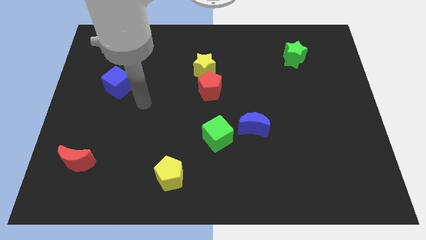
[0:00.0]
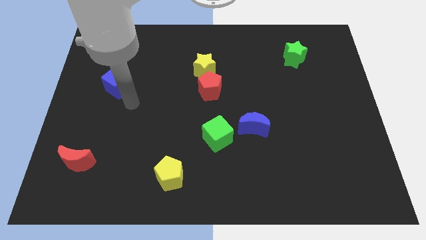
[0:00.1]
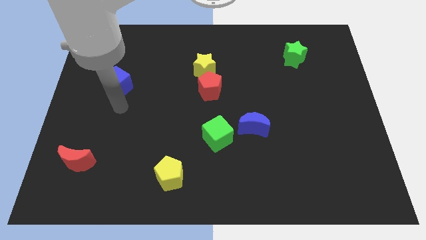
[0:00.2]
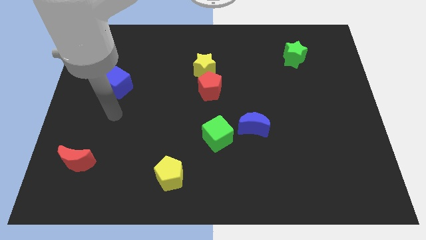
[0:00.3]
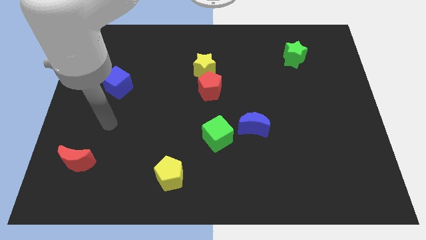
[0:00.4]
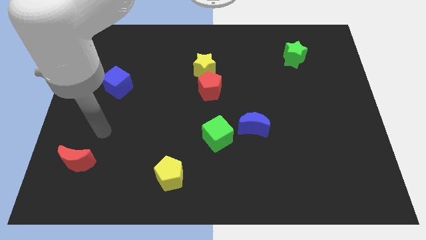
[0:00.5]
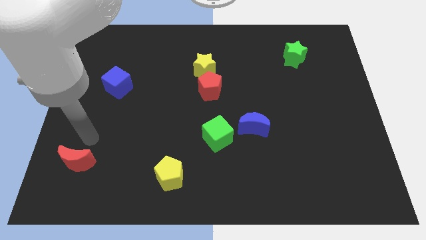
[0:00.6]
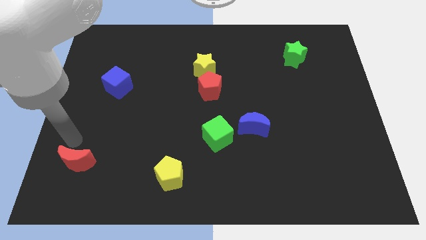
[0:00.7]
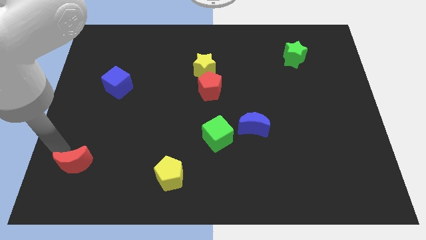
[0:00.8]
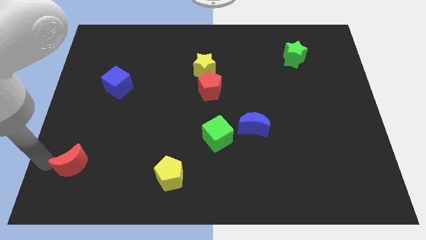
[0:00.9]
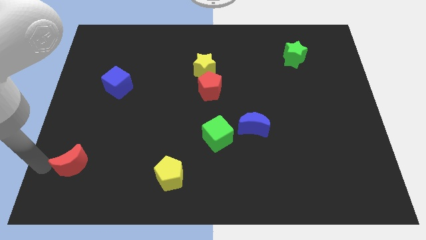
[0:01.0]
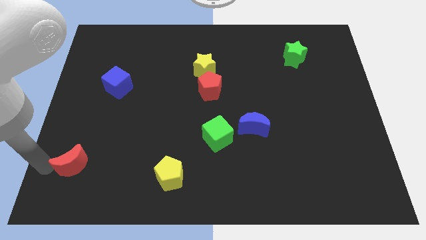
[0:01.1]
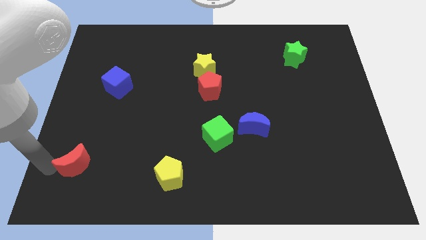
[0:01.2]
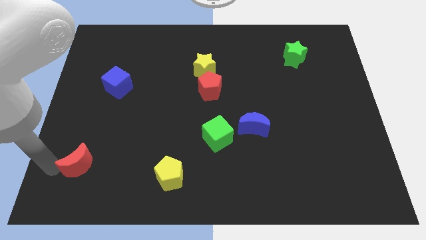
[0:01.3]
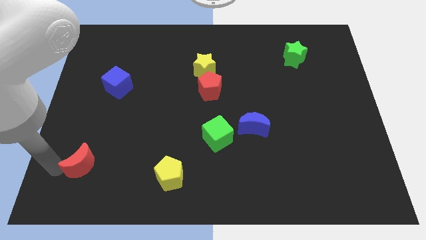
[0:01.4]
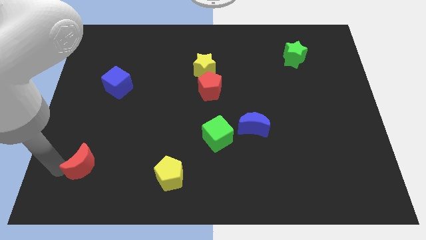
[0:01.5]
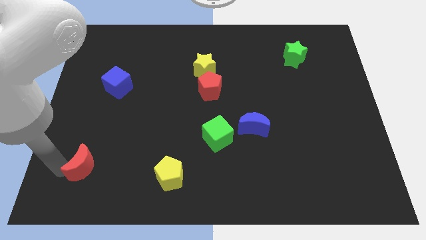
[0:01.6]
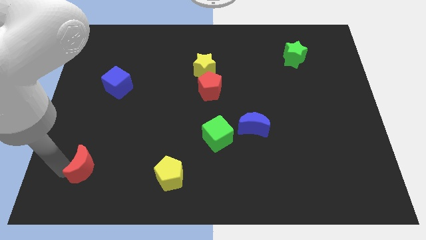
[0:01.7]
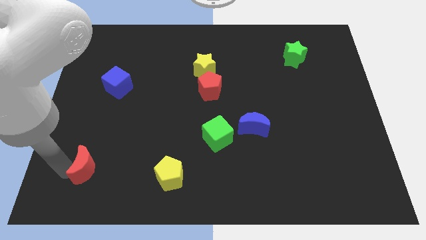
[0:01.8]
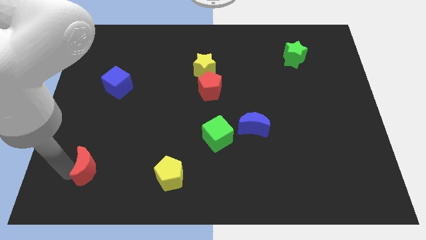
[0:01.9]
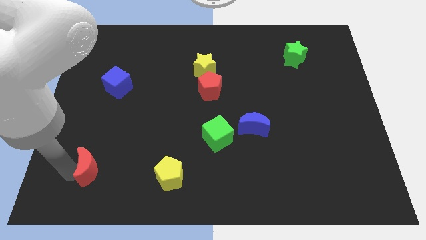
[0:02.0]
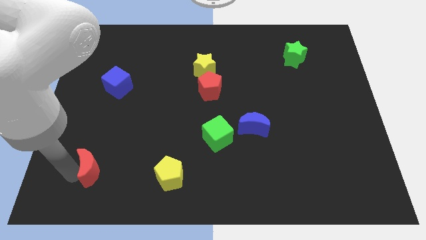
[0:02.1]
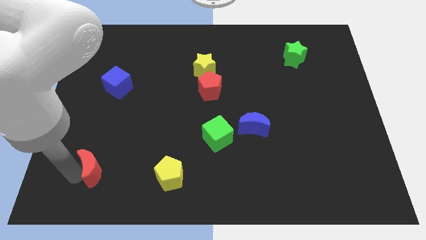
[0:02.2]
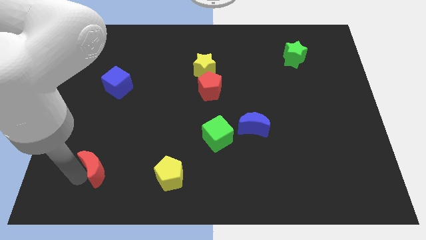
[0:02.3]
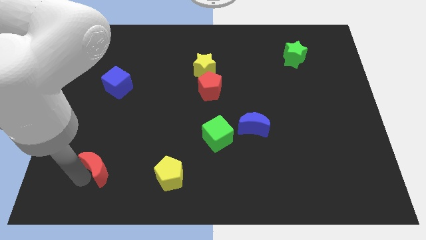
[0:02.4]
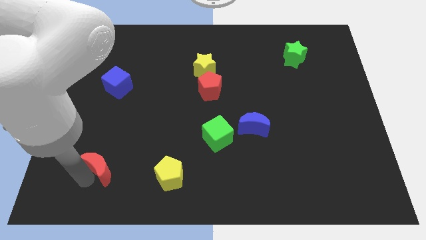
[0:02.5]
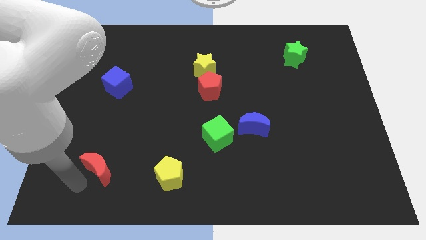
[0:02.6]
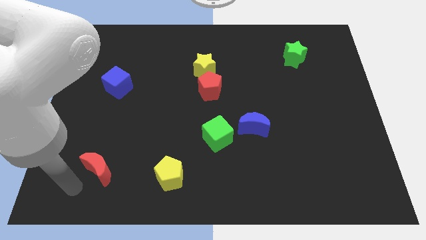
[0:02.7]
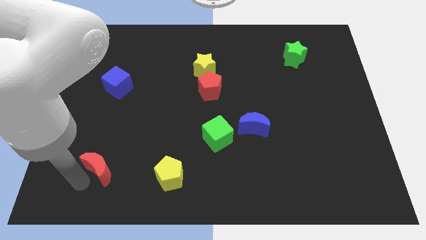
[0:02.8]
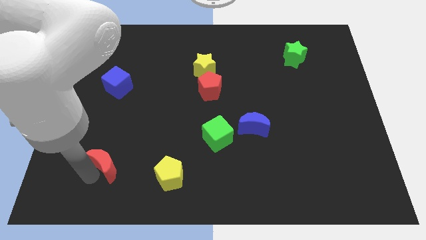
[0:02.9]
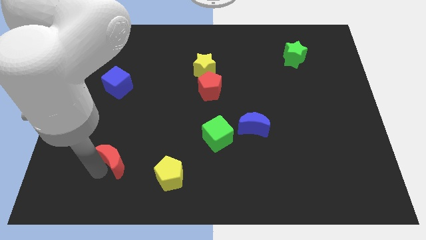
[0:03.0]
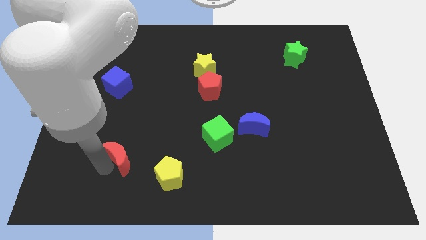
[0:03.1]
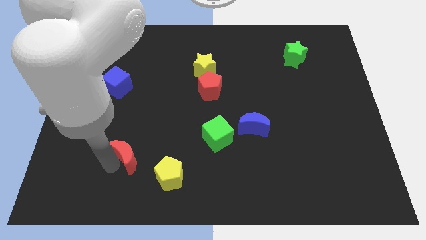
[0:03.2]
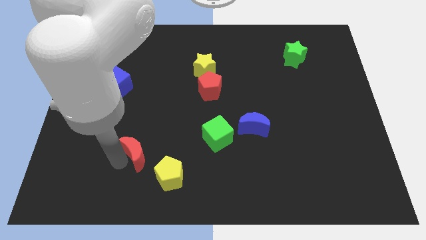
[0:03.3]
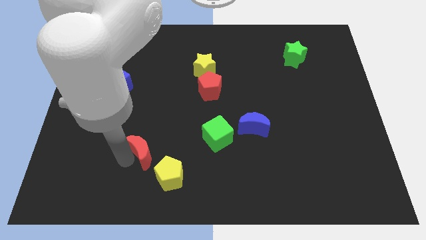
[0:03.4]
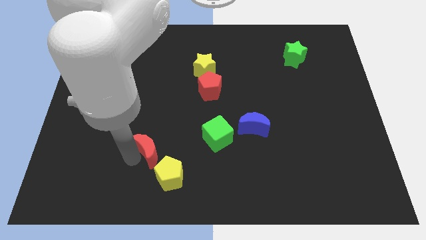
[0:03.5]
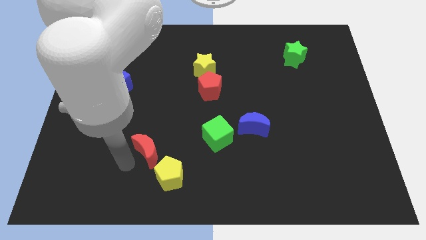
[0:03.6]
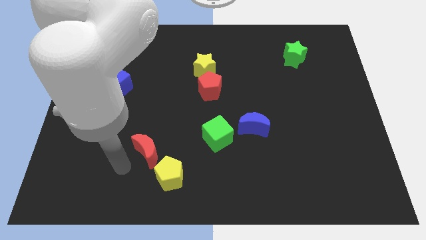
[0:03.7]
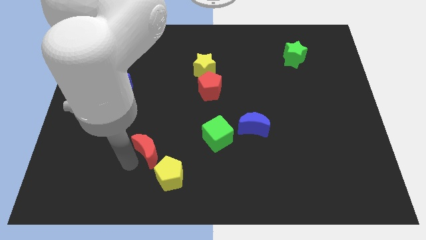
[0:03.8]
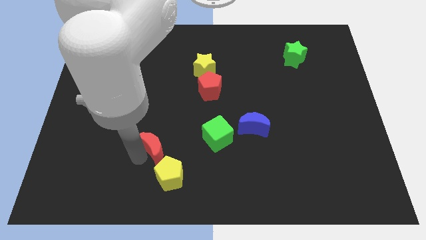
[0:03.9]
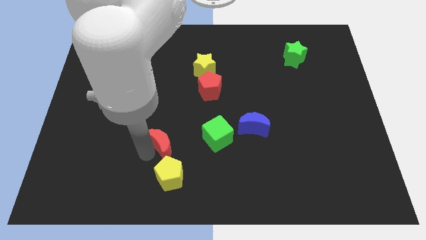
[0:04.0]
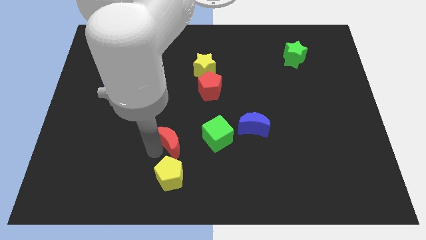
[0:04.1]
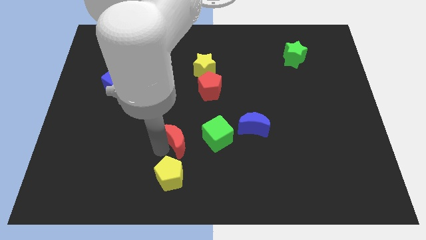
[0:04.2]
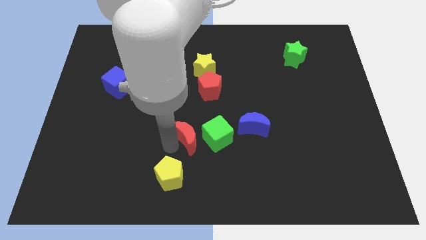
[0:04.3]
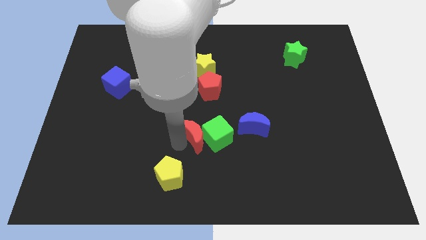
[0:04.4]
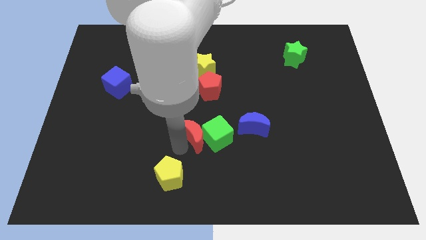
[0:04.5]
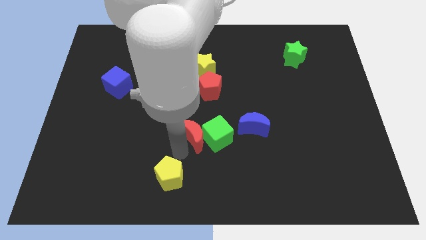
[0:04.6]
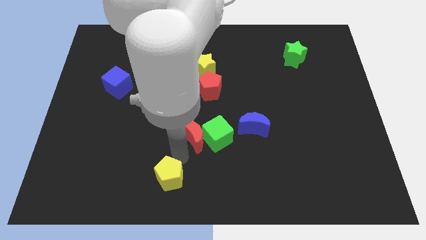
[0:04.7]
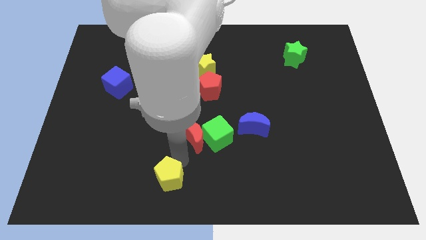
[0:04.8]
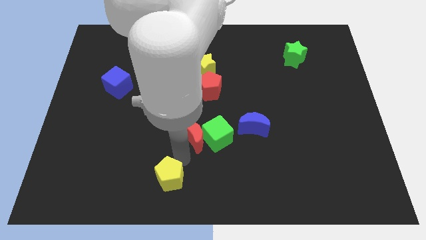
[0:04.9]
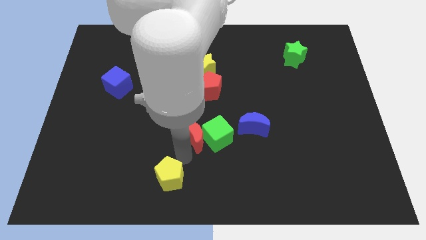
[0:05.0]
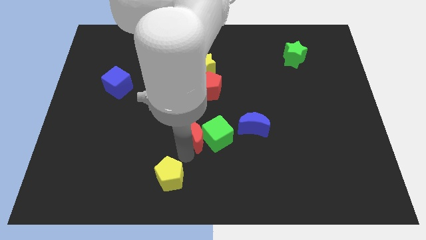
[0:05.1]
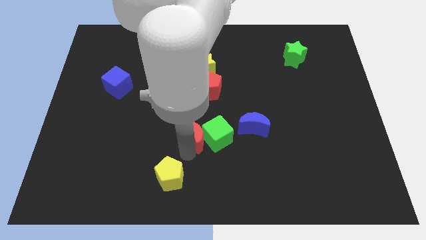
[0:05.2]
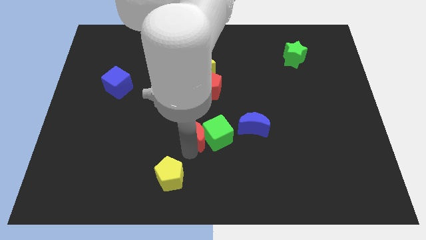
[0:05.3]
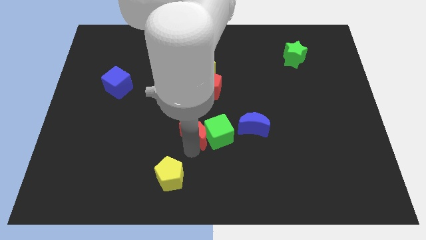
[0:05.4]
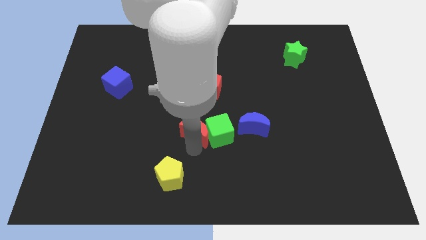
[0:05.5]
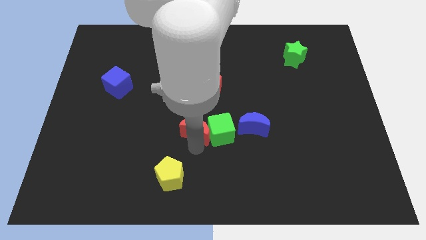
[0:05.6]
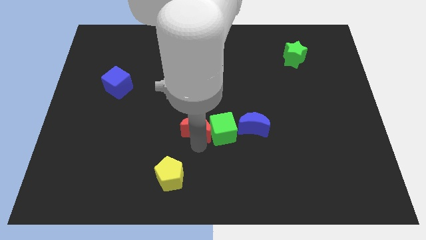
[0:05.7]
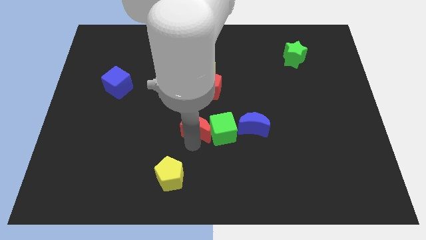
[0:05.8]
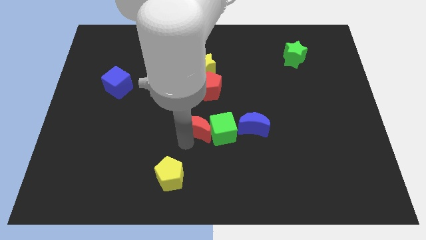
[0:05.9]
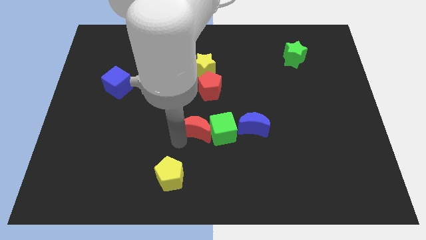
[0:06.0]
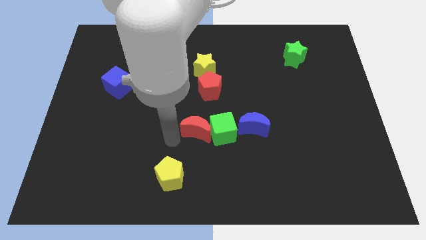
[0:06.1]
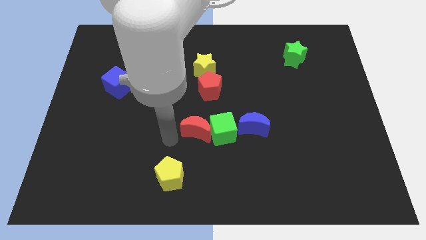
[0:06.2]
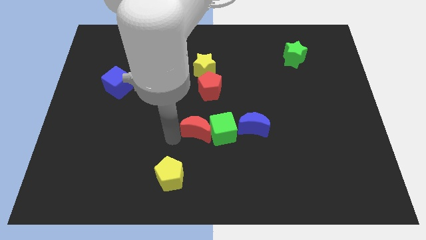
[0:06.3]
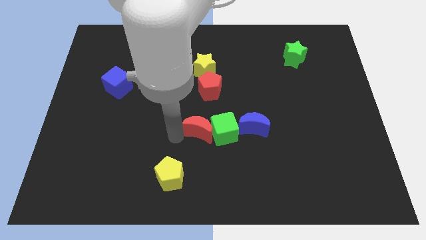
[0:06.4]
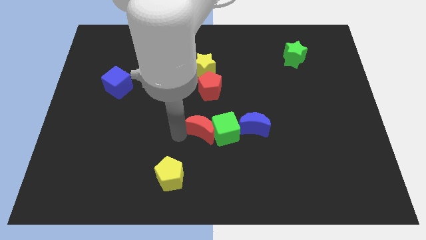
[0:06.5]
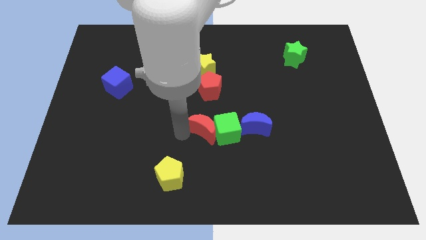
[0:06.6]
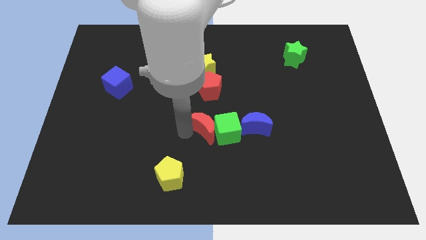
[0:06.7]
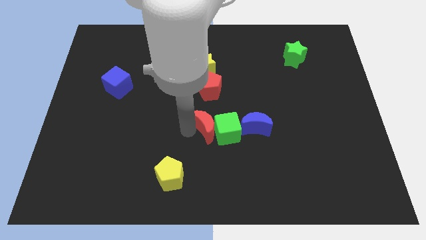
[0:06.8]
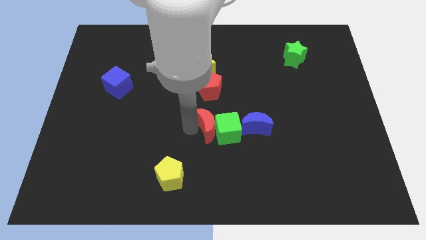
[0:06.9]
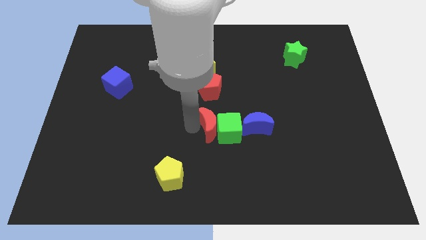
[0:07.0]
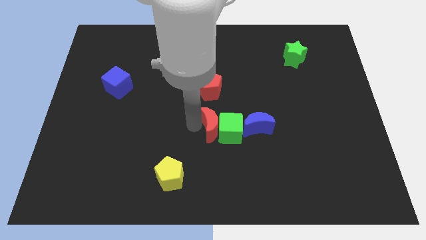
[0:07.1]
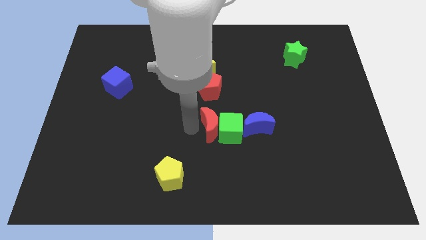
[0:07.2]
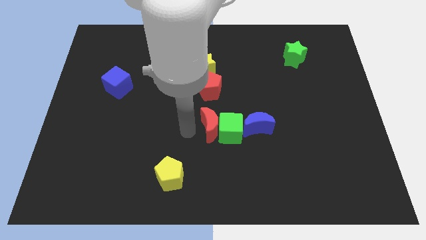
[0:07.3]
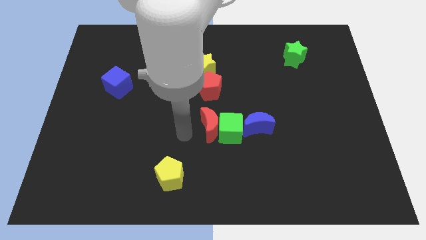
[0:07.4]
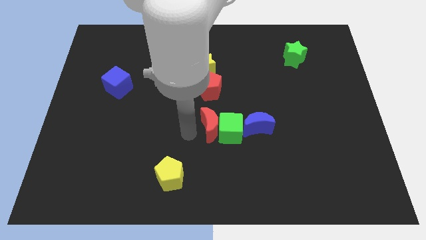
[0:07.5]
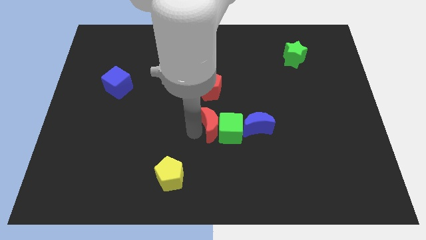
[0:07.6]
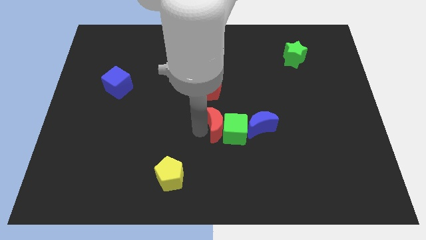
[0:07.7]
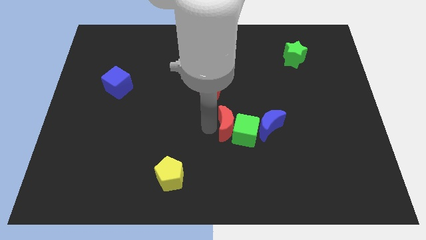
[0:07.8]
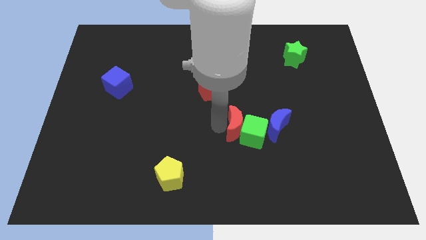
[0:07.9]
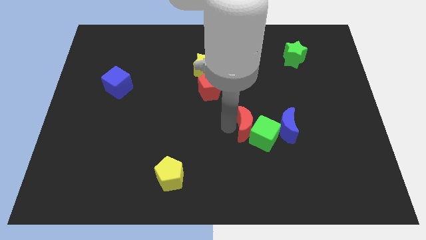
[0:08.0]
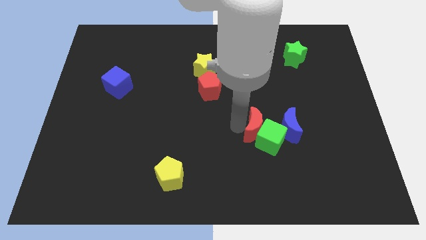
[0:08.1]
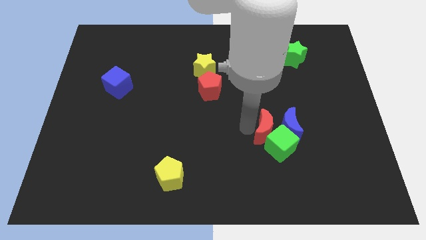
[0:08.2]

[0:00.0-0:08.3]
move the red moon close to the blue moon
